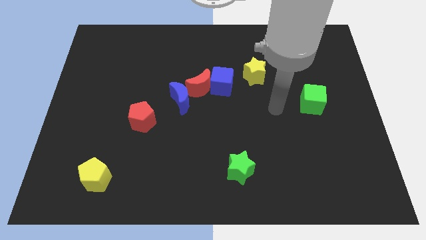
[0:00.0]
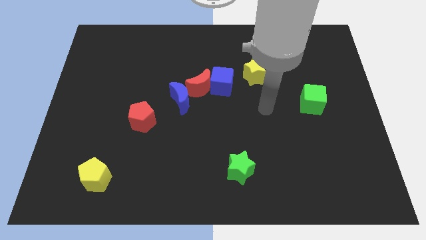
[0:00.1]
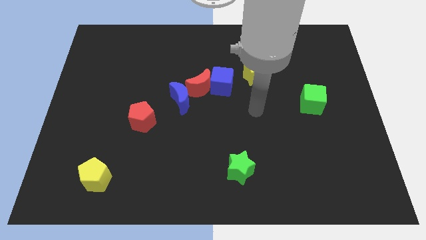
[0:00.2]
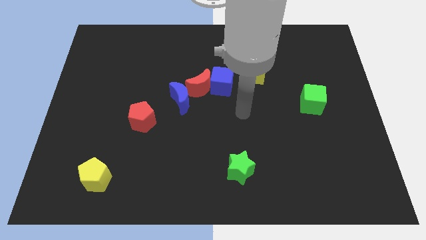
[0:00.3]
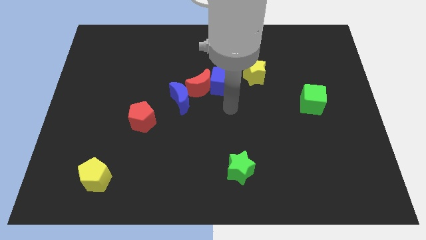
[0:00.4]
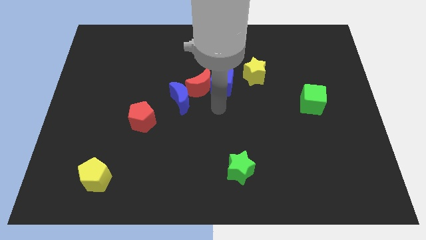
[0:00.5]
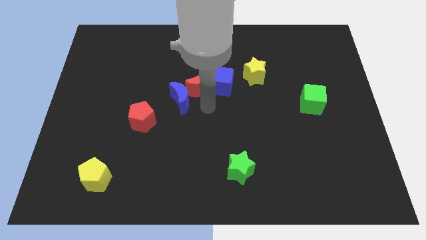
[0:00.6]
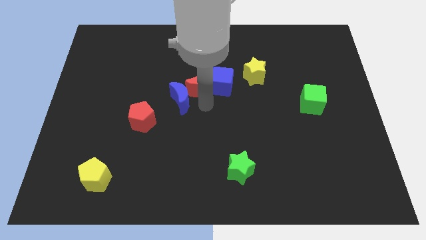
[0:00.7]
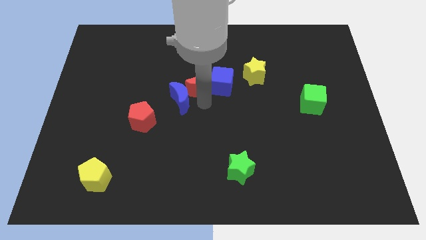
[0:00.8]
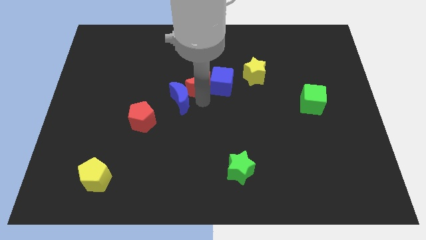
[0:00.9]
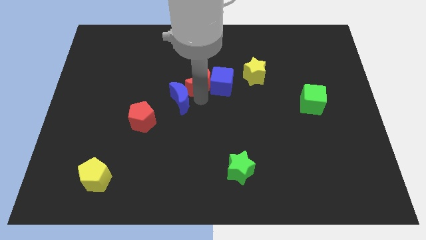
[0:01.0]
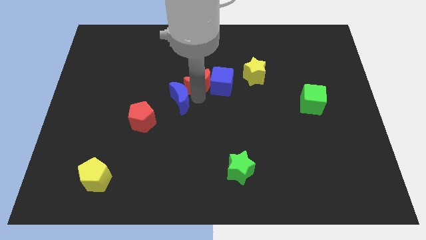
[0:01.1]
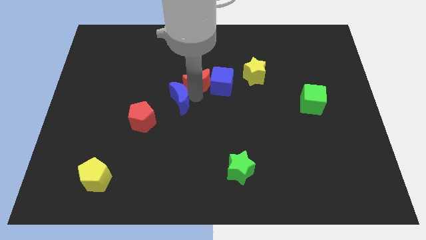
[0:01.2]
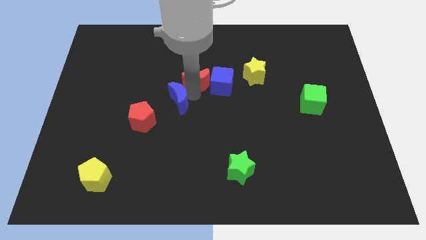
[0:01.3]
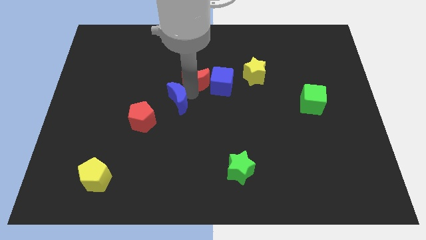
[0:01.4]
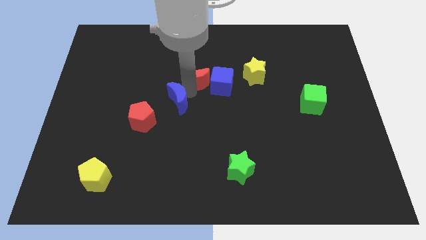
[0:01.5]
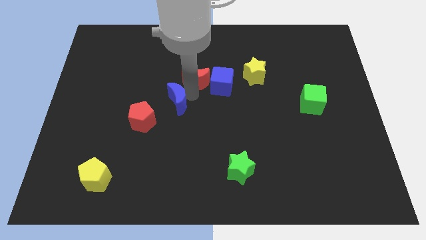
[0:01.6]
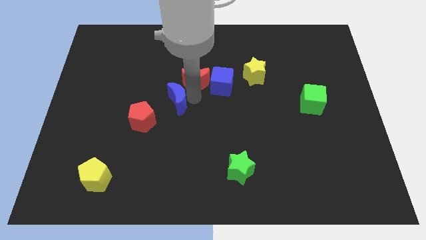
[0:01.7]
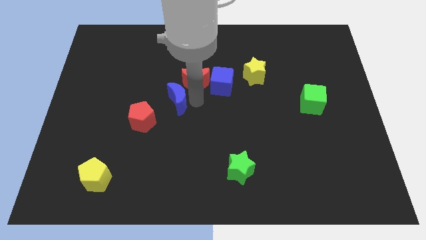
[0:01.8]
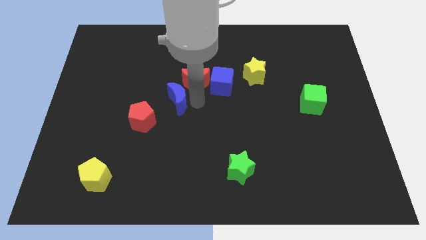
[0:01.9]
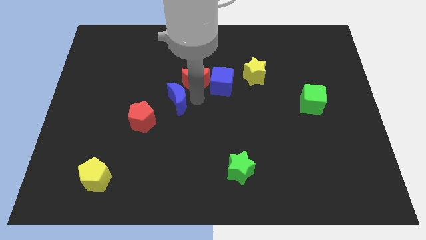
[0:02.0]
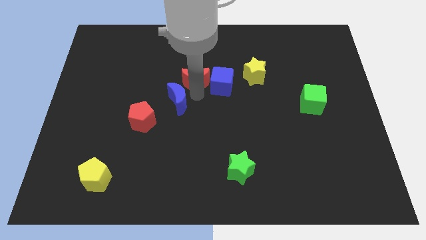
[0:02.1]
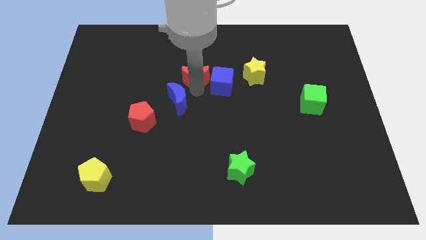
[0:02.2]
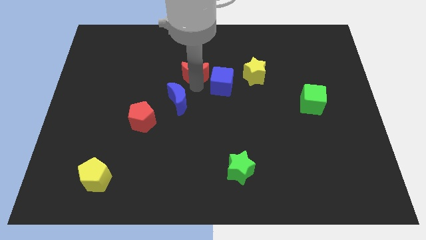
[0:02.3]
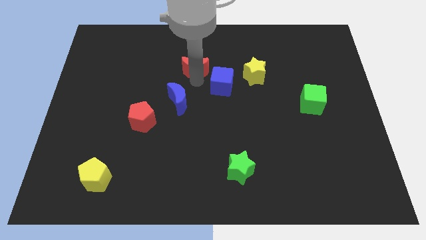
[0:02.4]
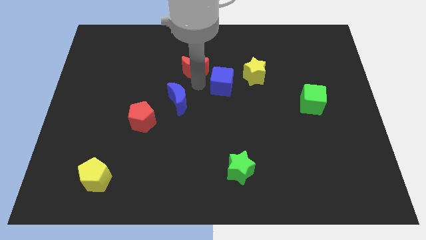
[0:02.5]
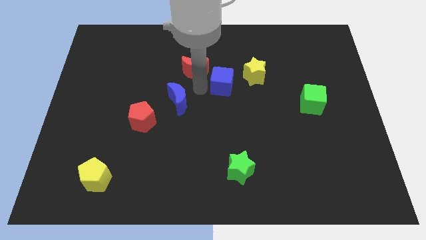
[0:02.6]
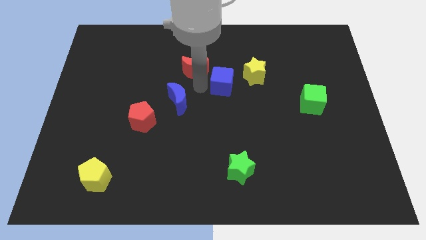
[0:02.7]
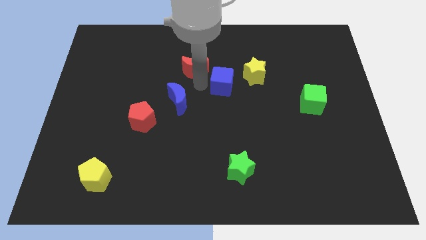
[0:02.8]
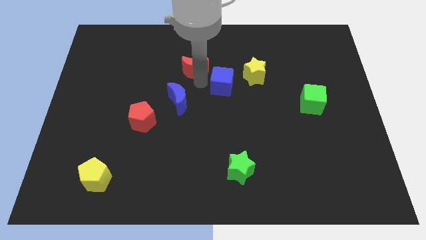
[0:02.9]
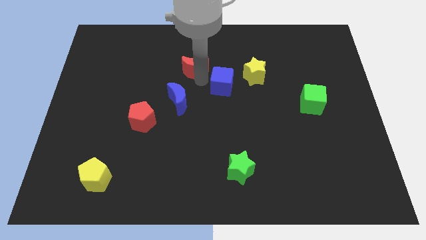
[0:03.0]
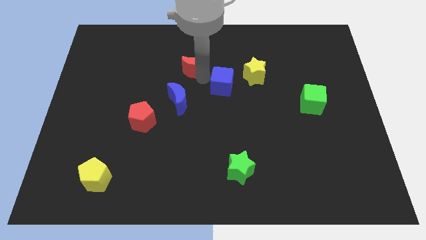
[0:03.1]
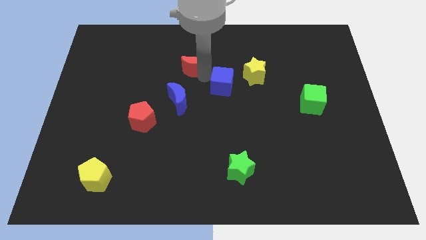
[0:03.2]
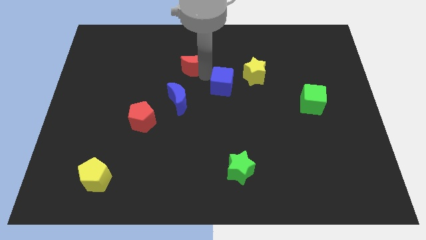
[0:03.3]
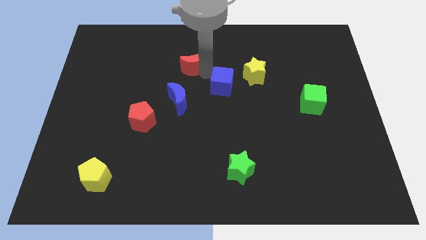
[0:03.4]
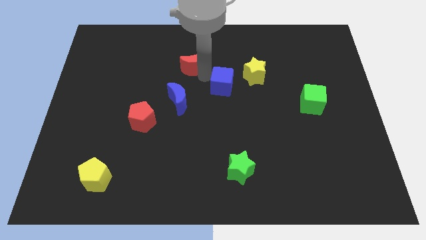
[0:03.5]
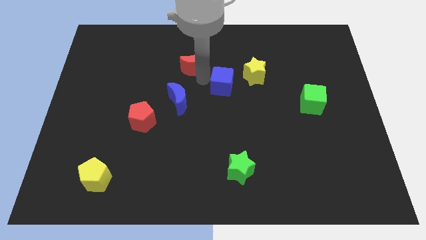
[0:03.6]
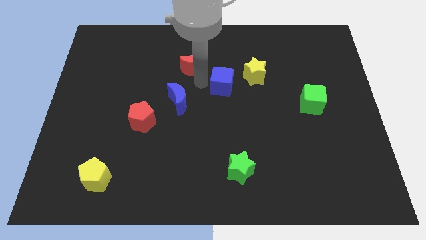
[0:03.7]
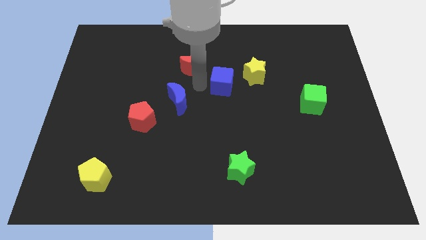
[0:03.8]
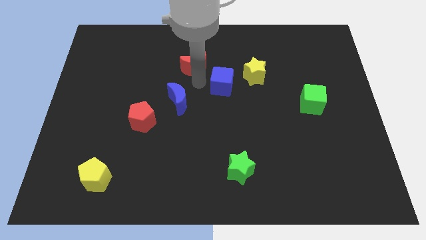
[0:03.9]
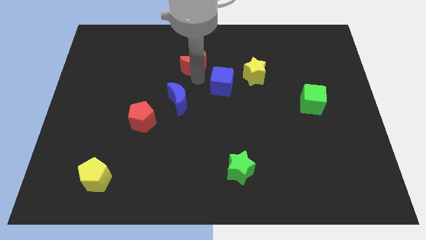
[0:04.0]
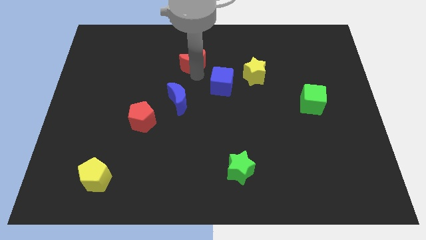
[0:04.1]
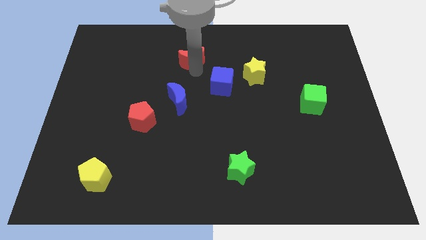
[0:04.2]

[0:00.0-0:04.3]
separate the red moon from the blue cube and blue moon

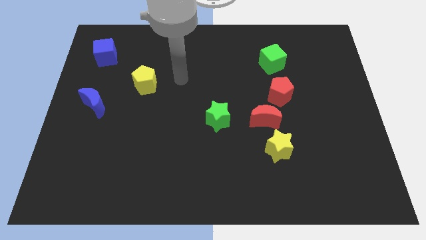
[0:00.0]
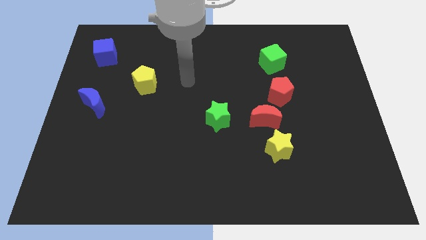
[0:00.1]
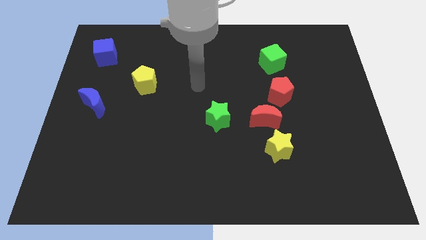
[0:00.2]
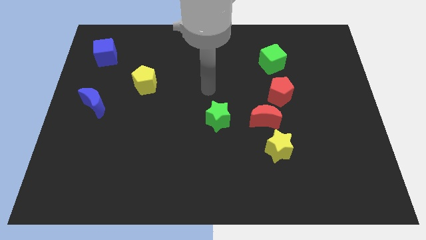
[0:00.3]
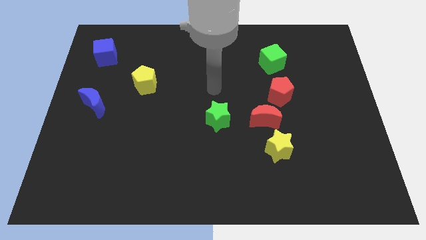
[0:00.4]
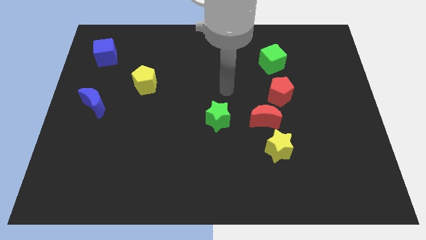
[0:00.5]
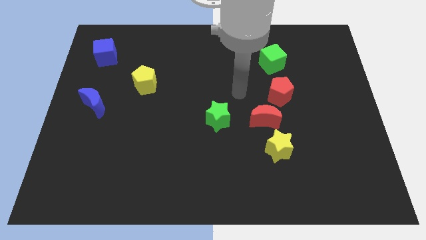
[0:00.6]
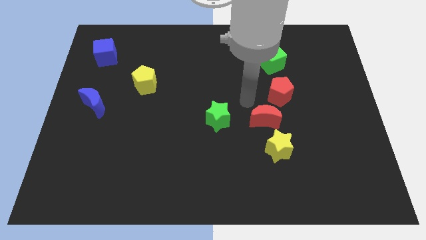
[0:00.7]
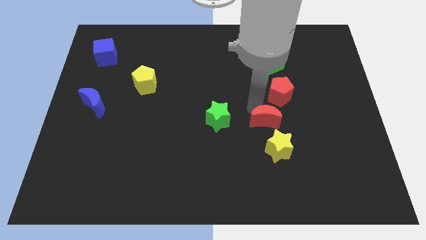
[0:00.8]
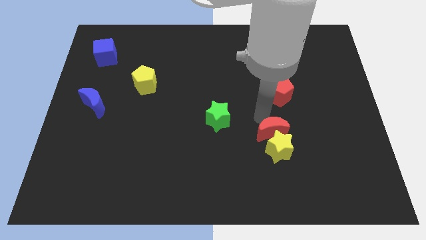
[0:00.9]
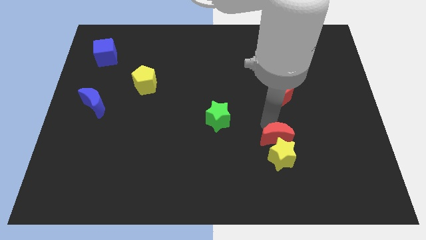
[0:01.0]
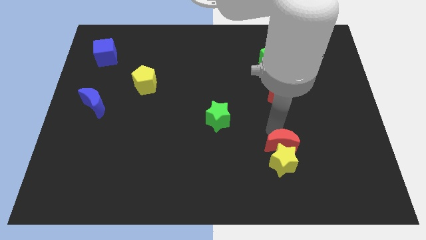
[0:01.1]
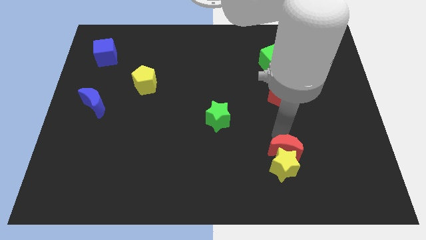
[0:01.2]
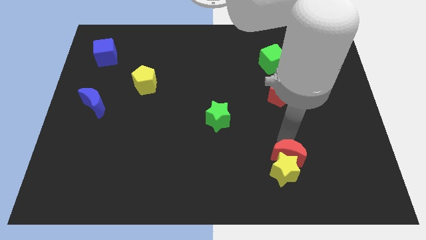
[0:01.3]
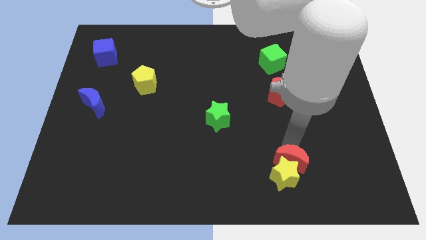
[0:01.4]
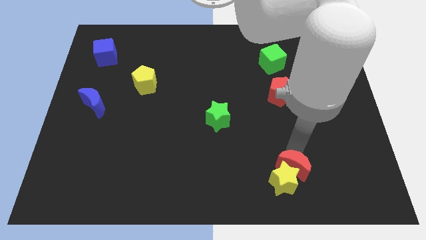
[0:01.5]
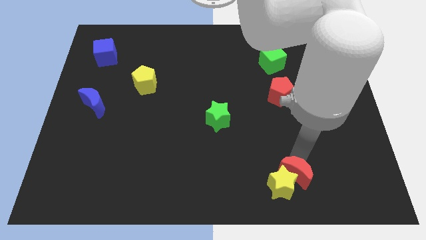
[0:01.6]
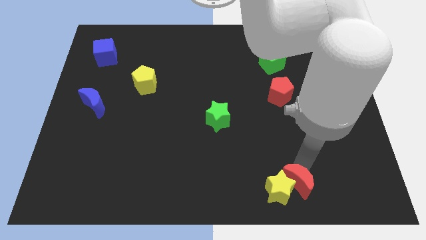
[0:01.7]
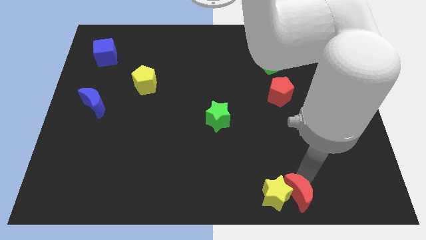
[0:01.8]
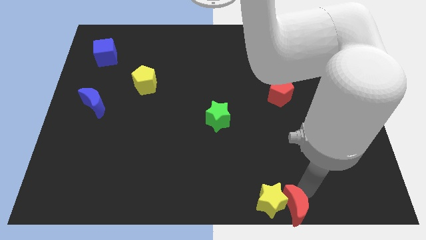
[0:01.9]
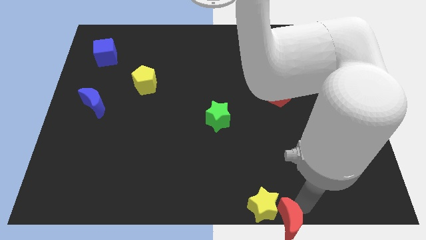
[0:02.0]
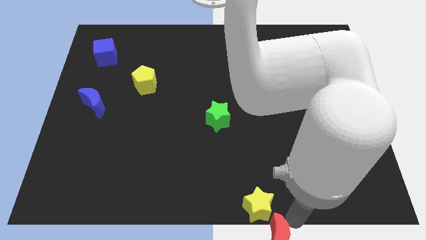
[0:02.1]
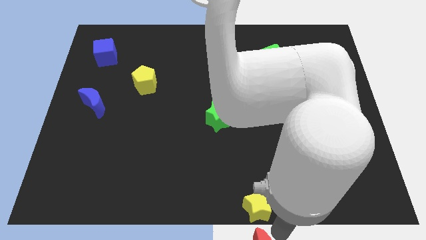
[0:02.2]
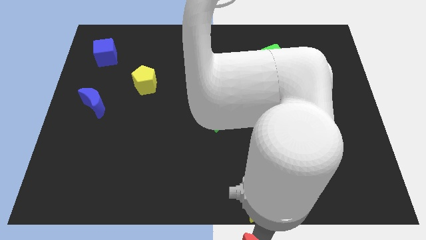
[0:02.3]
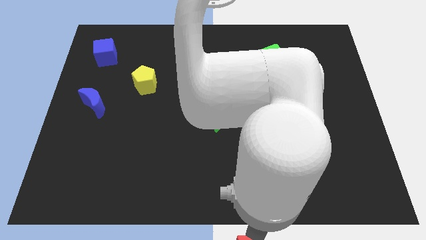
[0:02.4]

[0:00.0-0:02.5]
move the yellow star away from the red moon

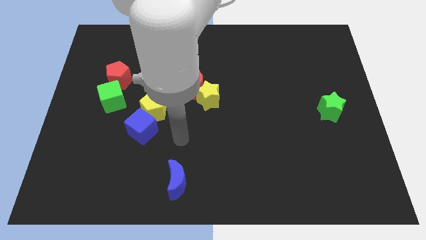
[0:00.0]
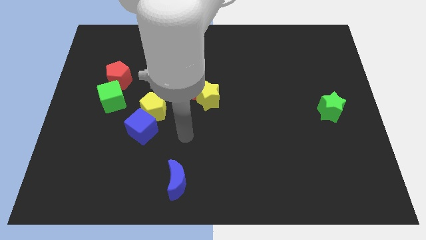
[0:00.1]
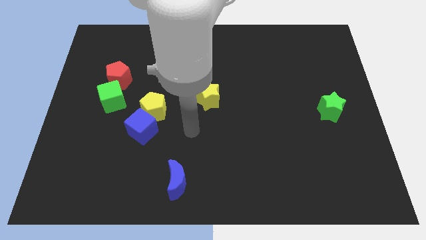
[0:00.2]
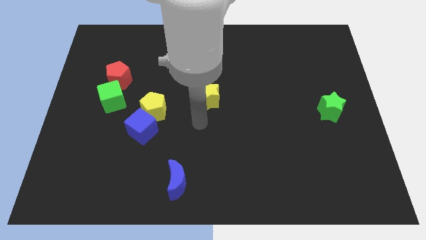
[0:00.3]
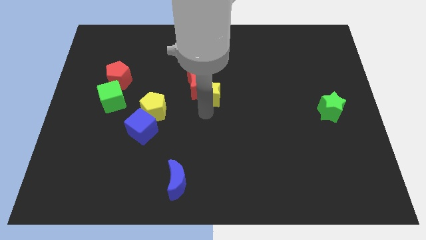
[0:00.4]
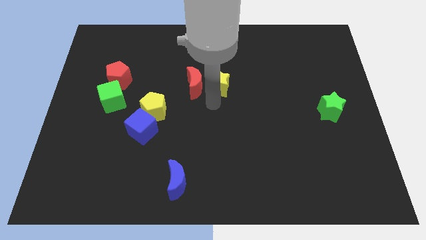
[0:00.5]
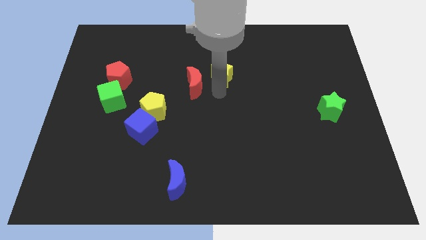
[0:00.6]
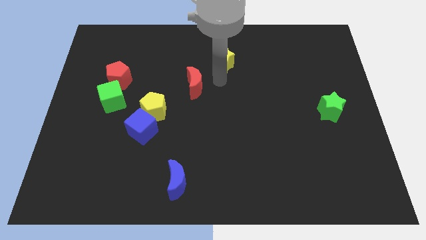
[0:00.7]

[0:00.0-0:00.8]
pull the red moon apart from the yellow star

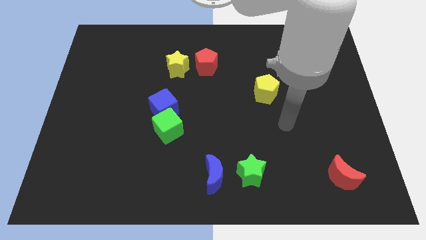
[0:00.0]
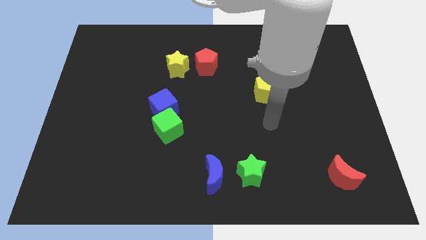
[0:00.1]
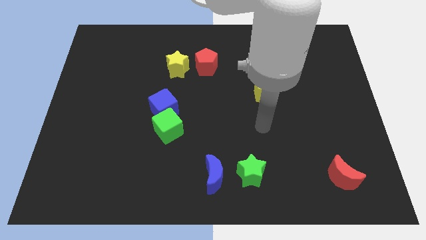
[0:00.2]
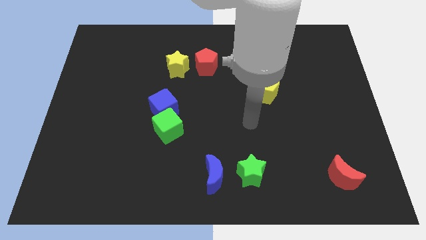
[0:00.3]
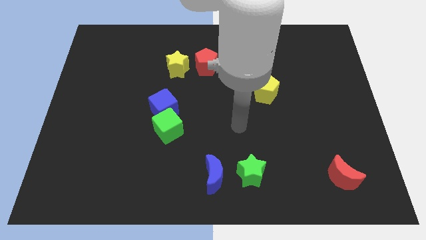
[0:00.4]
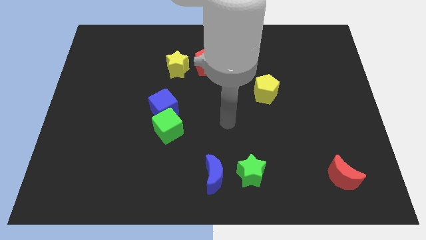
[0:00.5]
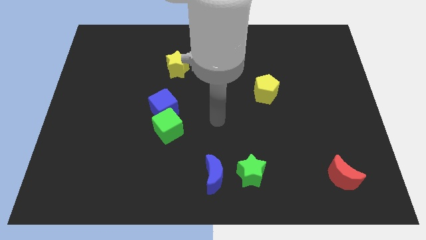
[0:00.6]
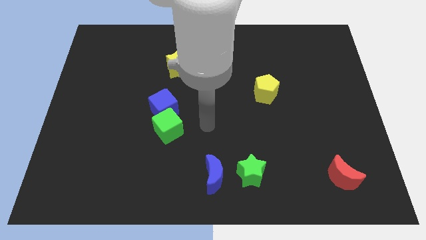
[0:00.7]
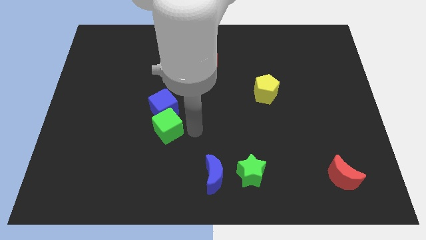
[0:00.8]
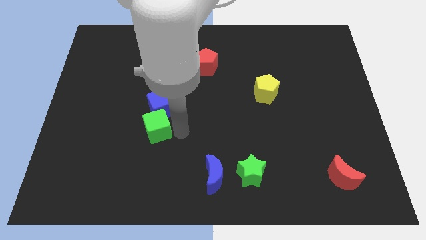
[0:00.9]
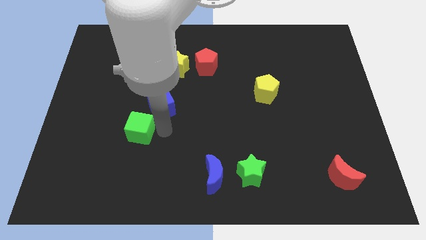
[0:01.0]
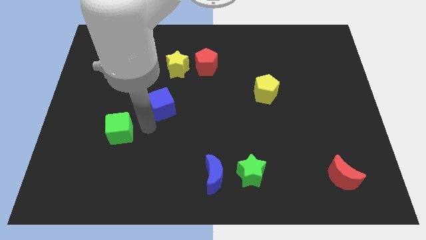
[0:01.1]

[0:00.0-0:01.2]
separate the blue cube from the green cube

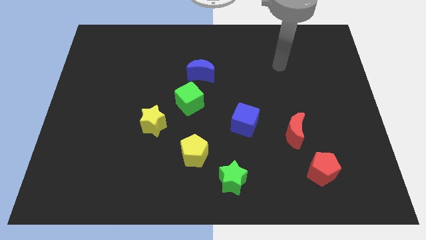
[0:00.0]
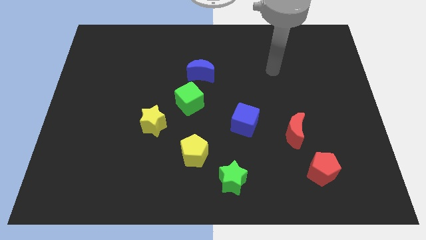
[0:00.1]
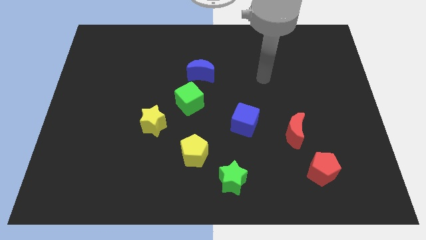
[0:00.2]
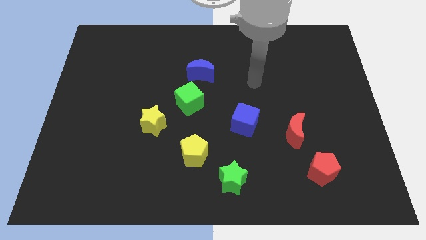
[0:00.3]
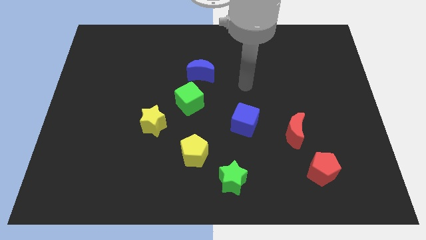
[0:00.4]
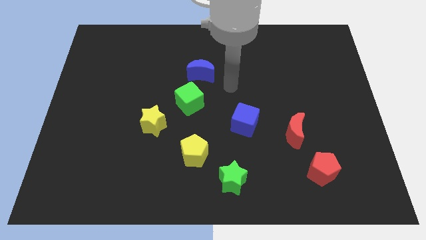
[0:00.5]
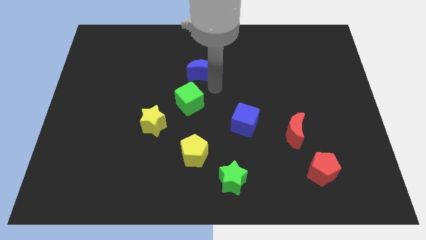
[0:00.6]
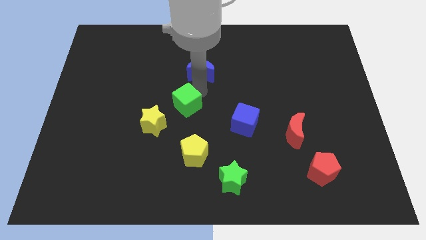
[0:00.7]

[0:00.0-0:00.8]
move the blue moon away from the green cube
